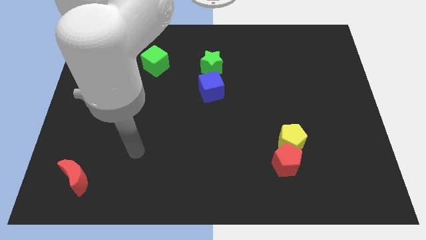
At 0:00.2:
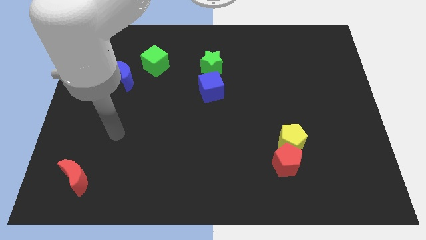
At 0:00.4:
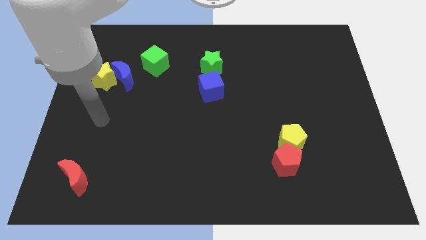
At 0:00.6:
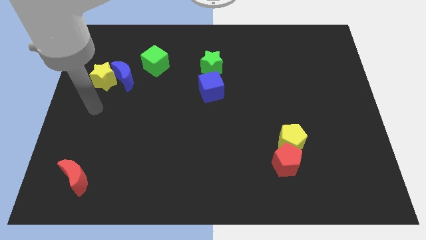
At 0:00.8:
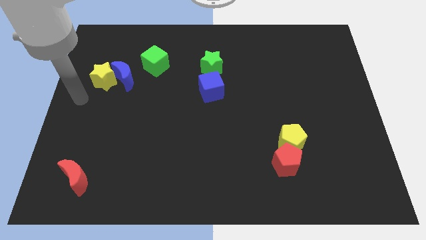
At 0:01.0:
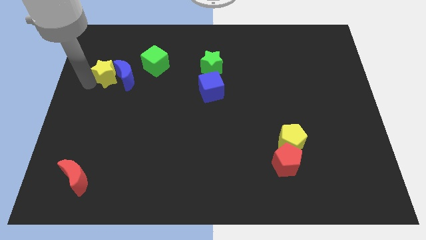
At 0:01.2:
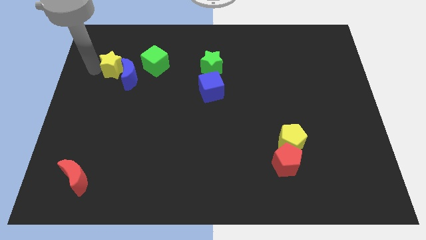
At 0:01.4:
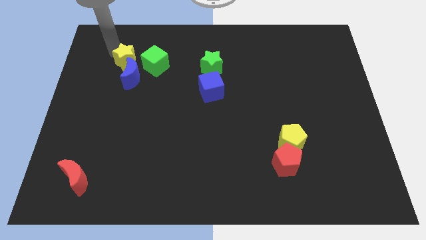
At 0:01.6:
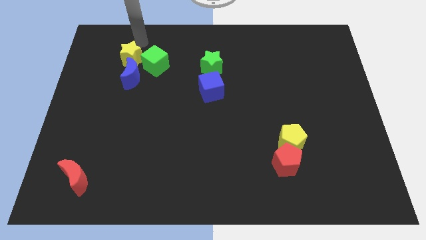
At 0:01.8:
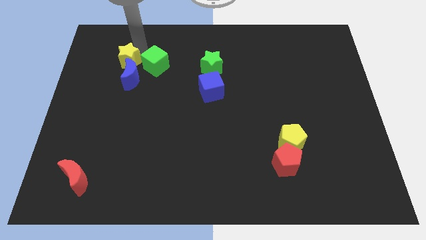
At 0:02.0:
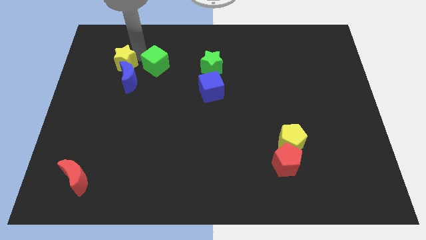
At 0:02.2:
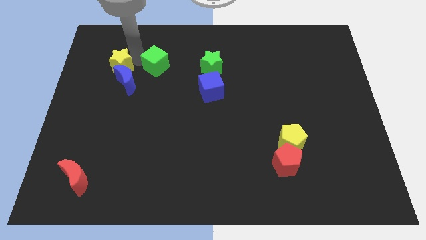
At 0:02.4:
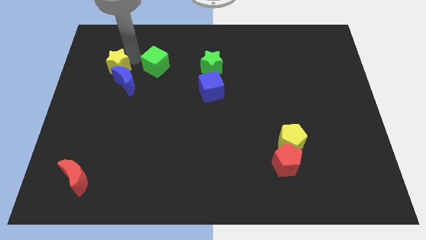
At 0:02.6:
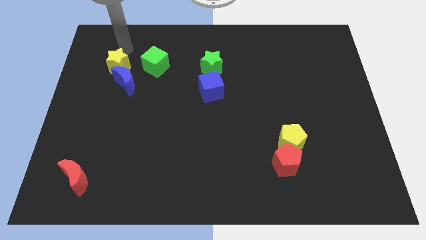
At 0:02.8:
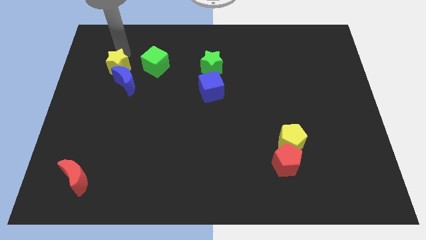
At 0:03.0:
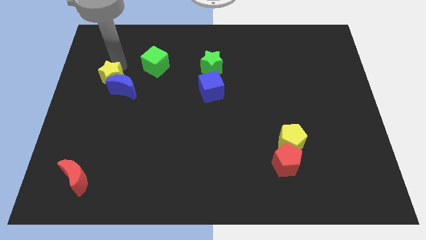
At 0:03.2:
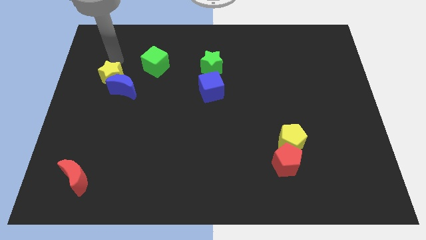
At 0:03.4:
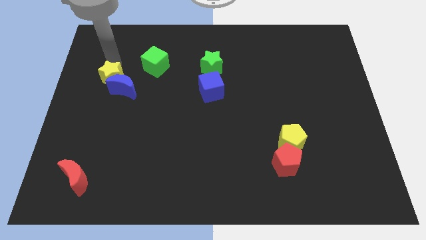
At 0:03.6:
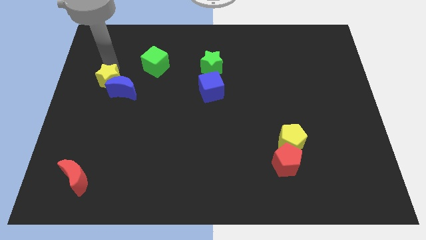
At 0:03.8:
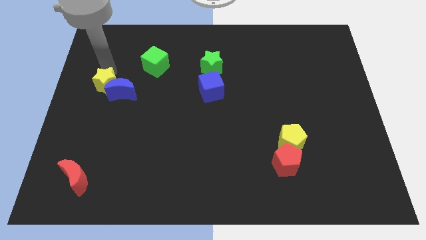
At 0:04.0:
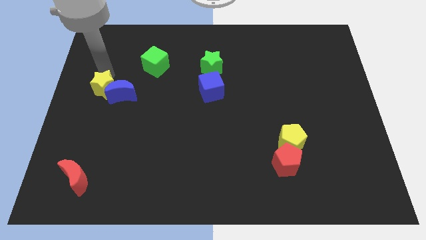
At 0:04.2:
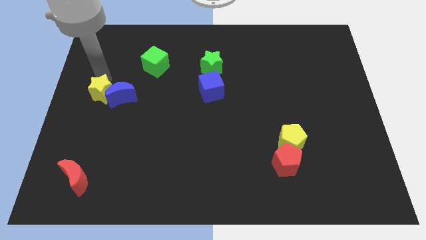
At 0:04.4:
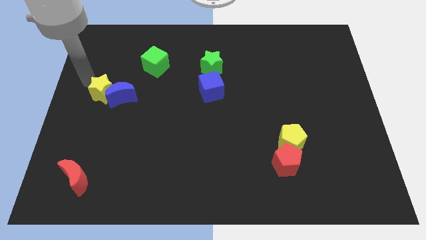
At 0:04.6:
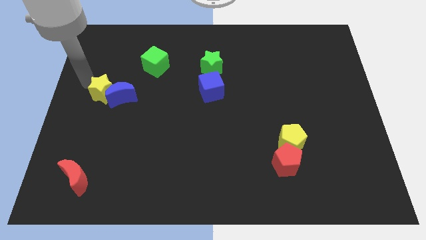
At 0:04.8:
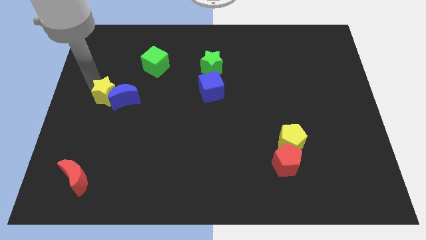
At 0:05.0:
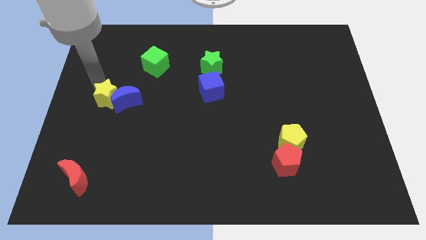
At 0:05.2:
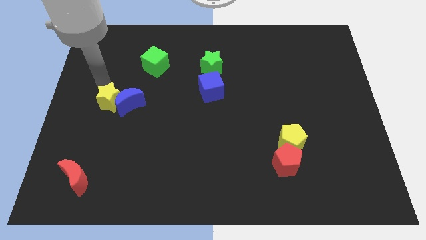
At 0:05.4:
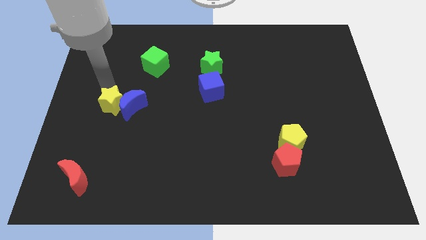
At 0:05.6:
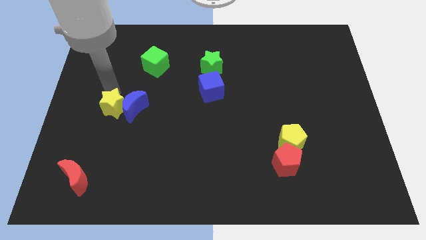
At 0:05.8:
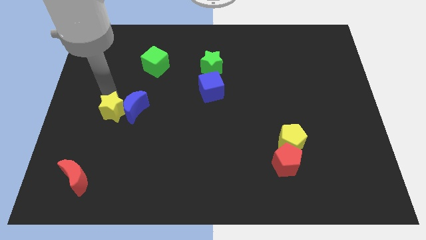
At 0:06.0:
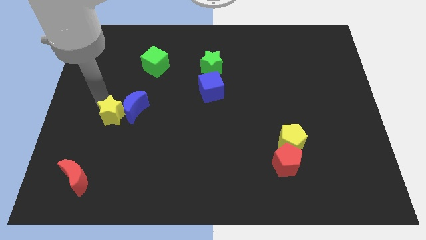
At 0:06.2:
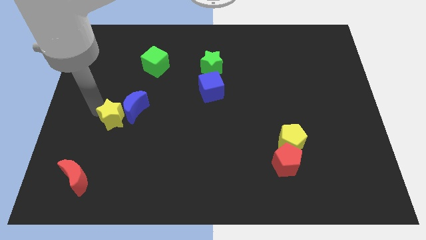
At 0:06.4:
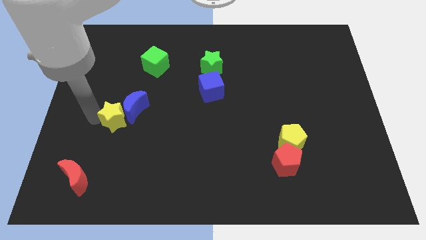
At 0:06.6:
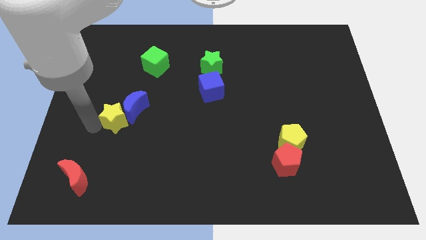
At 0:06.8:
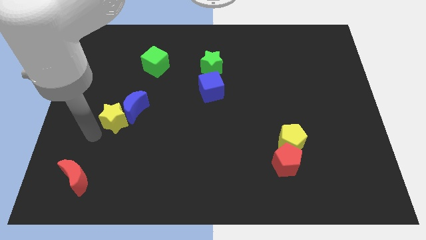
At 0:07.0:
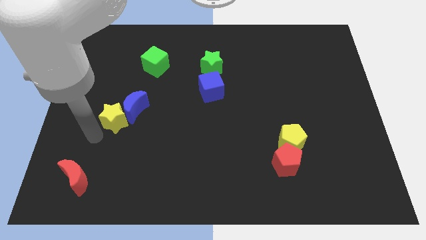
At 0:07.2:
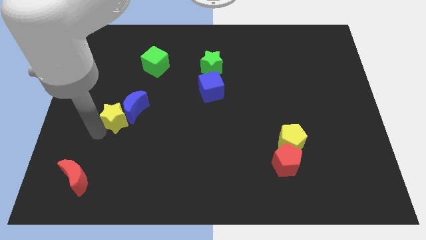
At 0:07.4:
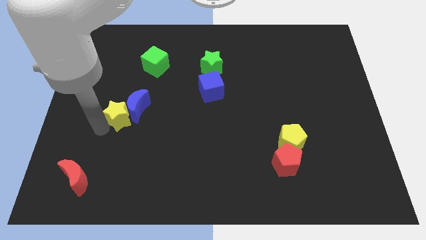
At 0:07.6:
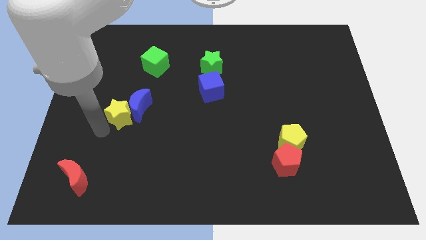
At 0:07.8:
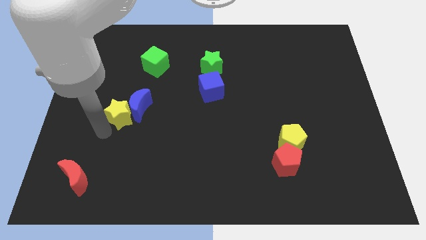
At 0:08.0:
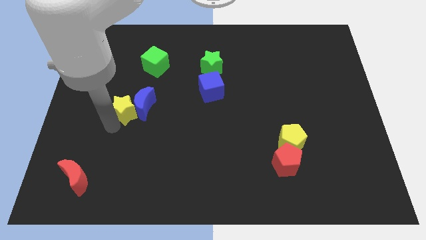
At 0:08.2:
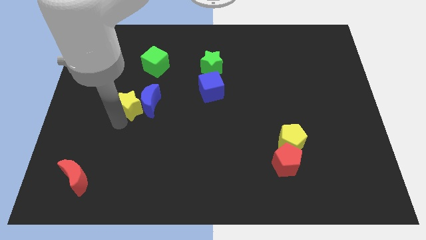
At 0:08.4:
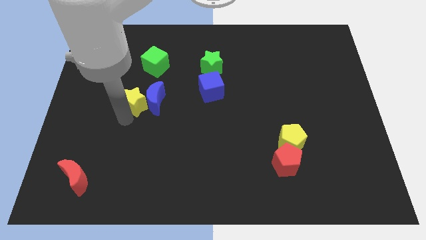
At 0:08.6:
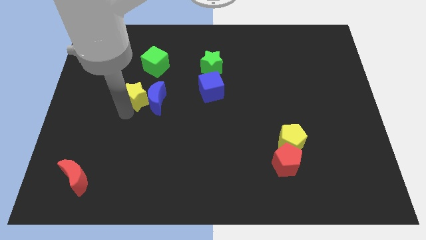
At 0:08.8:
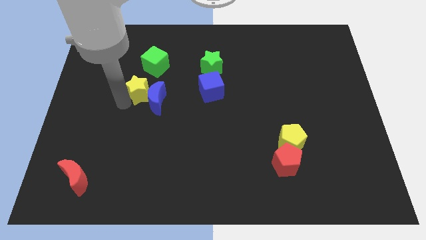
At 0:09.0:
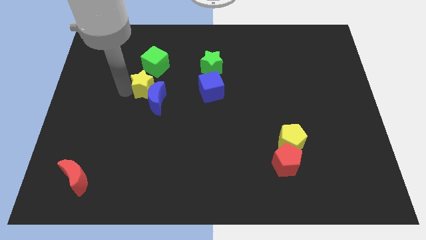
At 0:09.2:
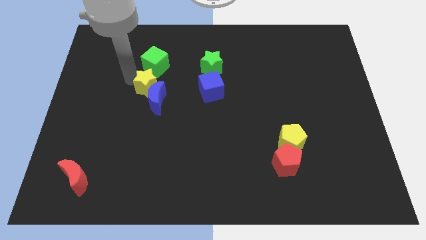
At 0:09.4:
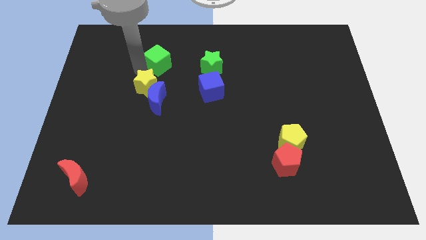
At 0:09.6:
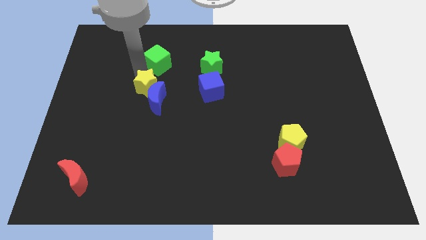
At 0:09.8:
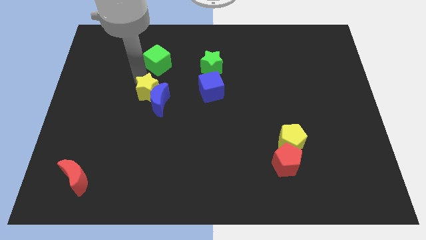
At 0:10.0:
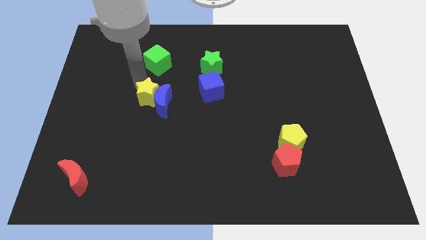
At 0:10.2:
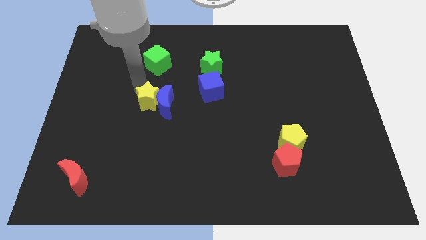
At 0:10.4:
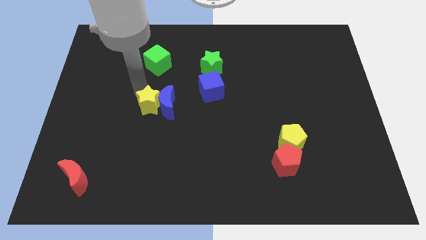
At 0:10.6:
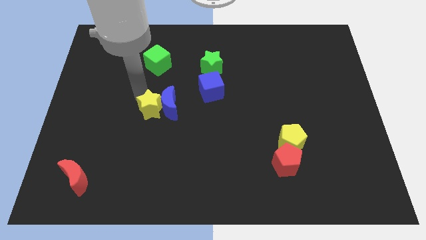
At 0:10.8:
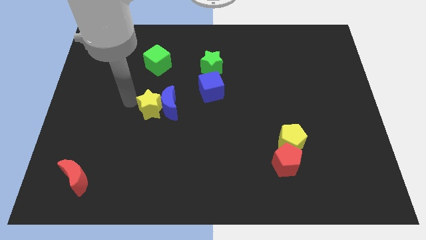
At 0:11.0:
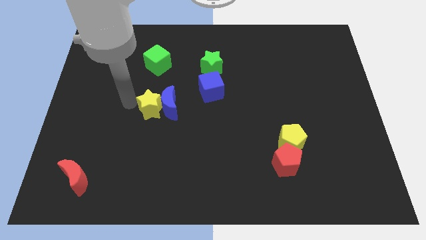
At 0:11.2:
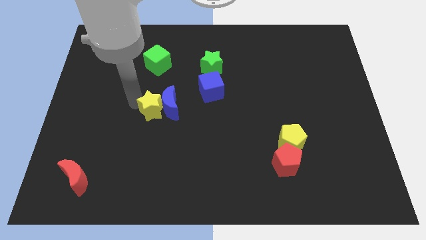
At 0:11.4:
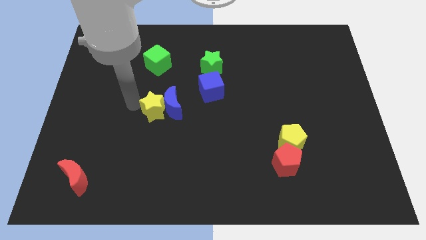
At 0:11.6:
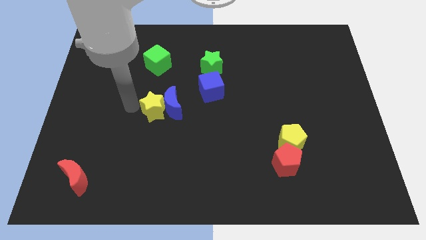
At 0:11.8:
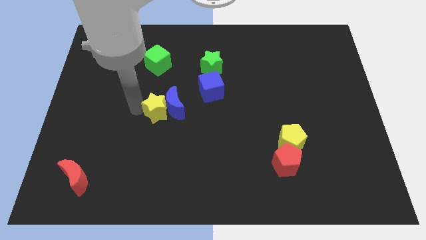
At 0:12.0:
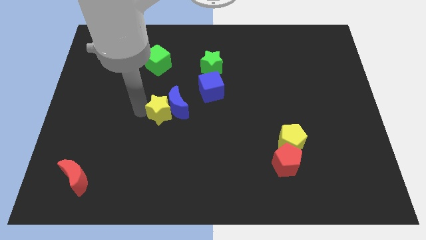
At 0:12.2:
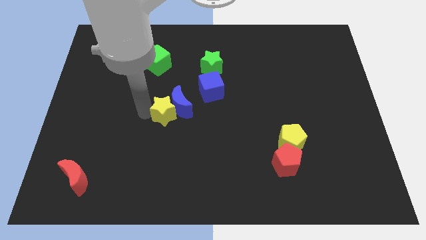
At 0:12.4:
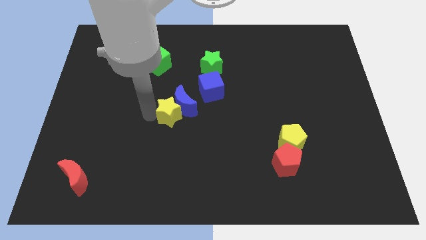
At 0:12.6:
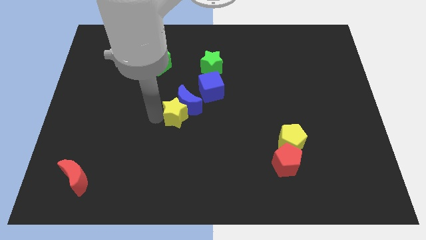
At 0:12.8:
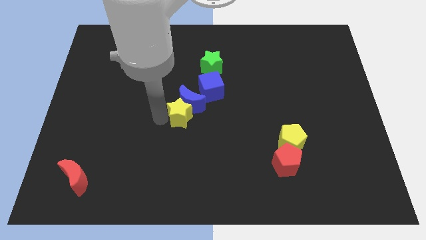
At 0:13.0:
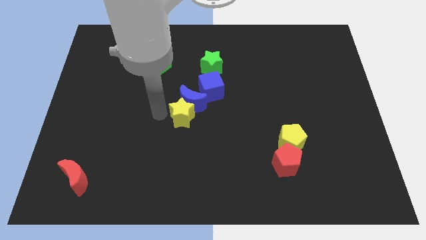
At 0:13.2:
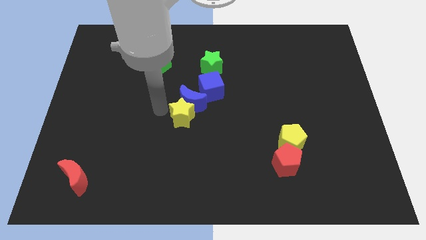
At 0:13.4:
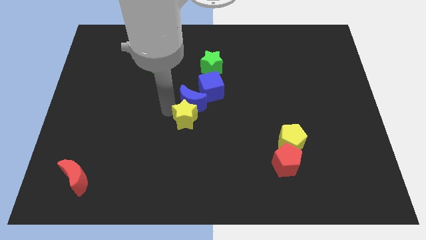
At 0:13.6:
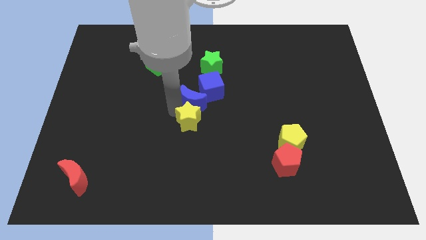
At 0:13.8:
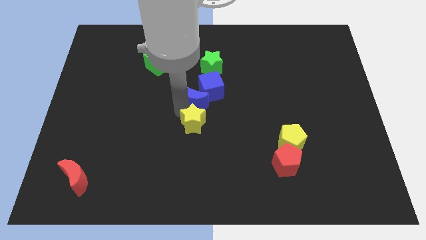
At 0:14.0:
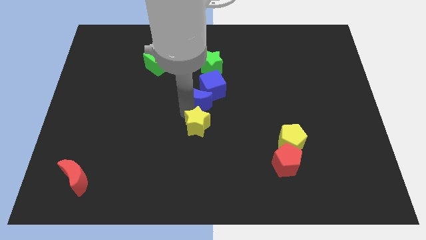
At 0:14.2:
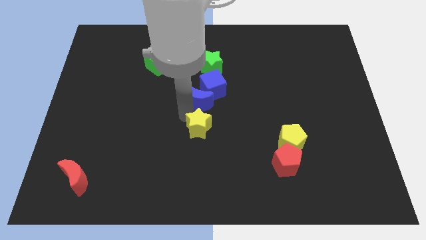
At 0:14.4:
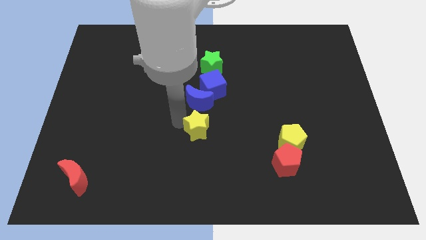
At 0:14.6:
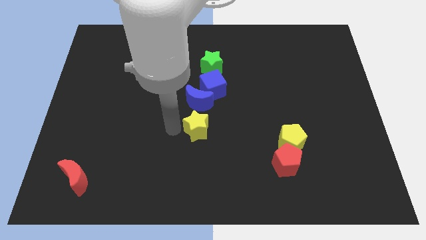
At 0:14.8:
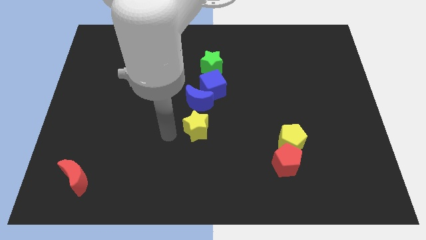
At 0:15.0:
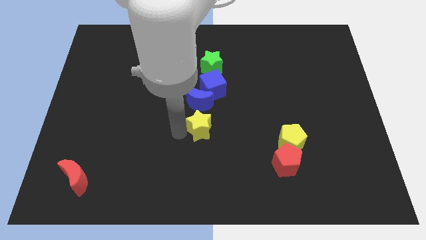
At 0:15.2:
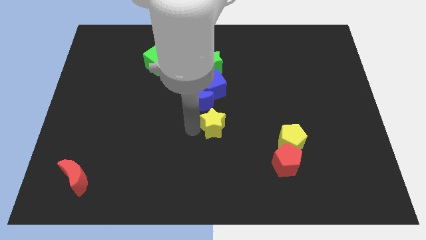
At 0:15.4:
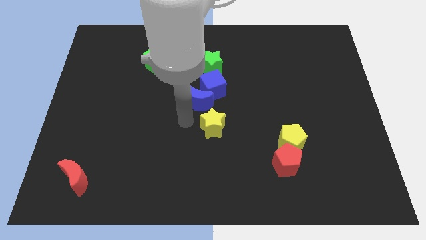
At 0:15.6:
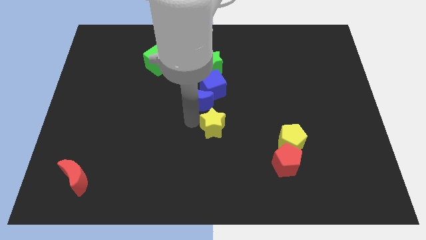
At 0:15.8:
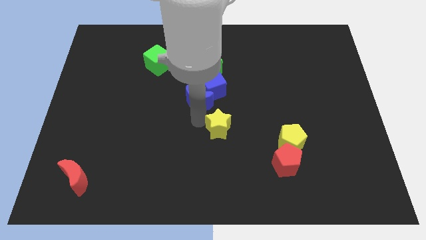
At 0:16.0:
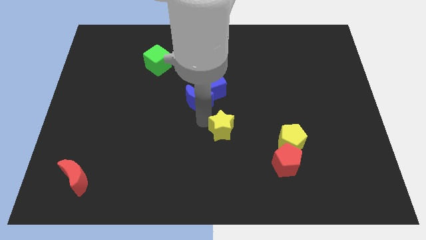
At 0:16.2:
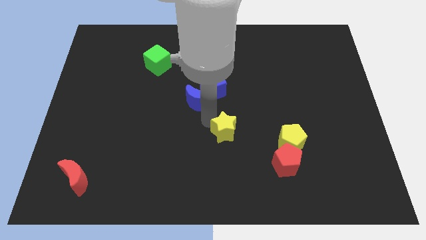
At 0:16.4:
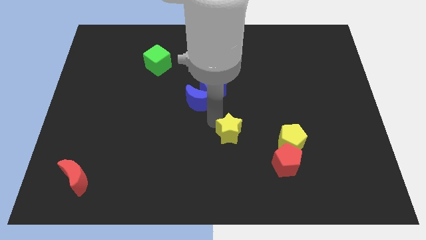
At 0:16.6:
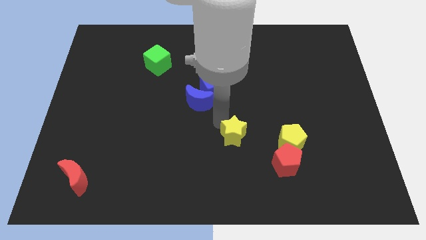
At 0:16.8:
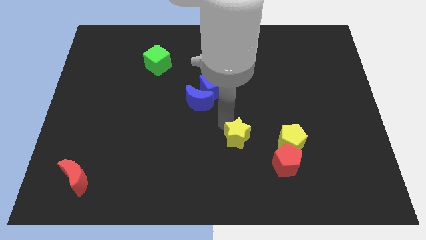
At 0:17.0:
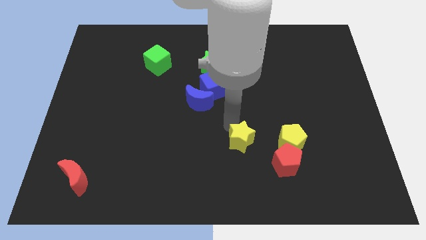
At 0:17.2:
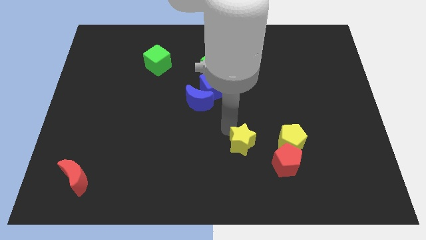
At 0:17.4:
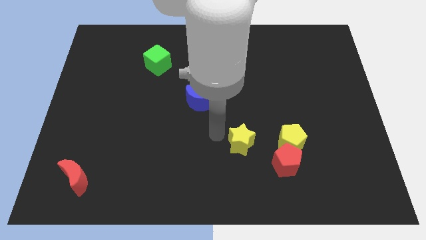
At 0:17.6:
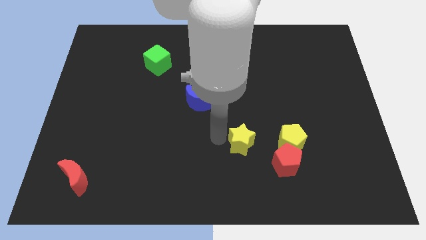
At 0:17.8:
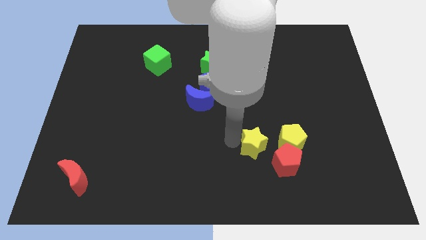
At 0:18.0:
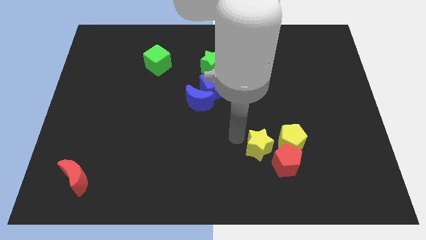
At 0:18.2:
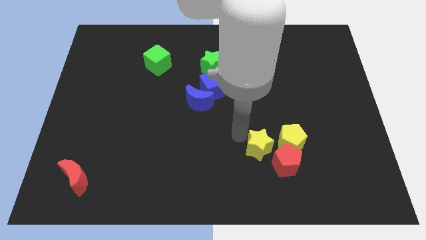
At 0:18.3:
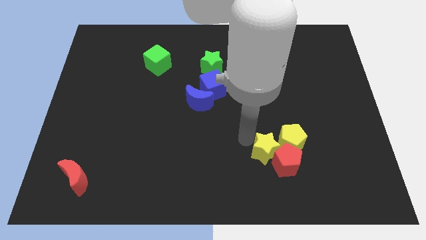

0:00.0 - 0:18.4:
move the yellow star next to the red pentagon
